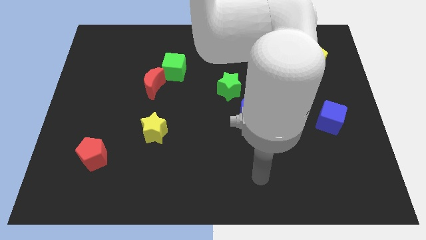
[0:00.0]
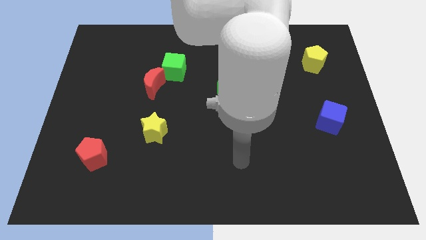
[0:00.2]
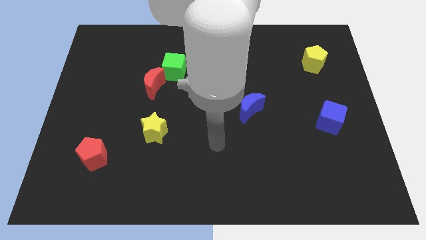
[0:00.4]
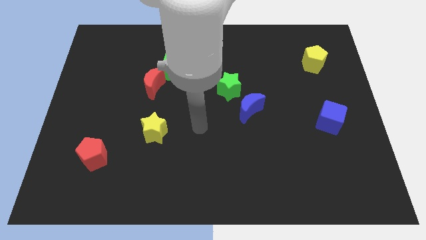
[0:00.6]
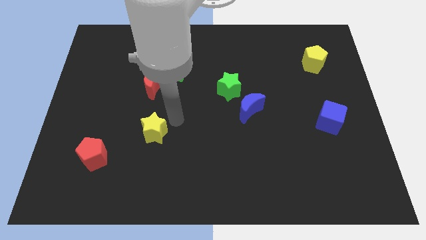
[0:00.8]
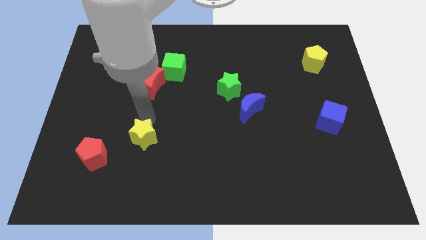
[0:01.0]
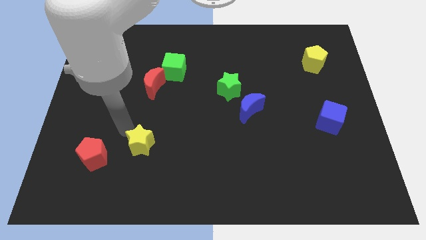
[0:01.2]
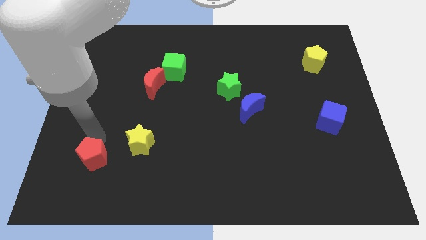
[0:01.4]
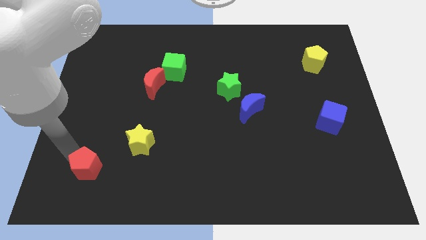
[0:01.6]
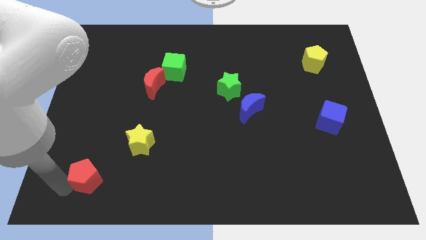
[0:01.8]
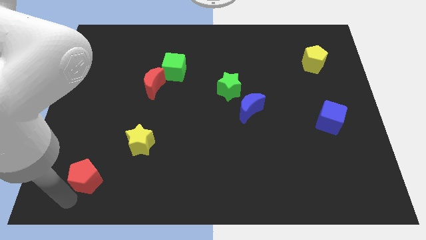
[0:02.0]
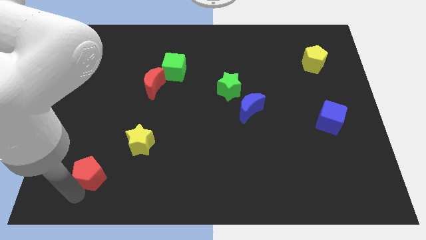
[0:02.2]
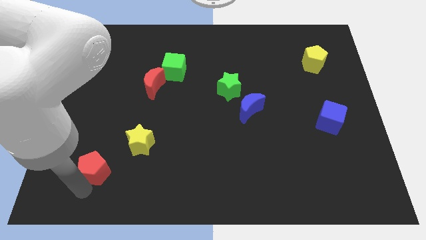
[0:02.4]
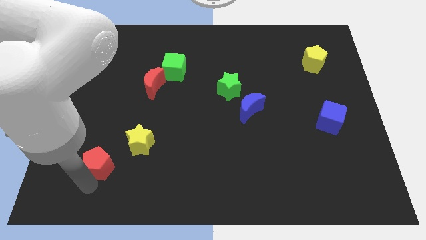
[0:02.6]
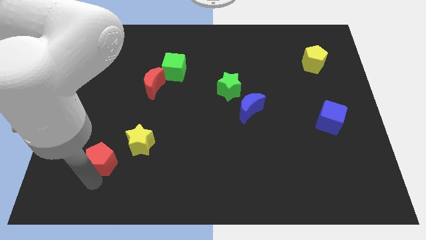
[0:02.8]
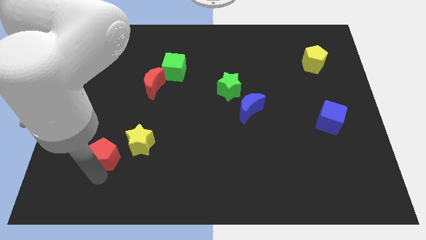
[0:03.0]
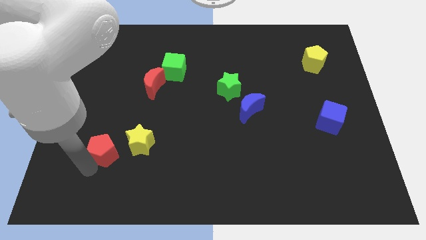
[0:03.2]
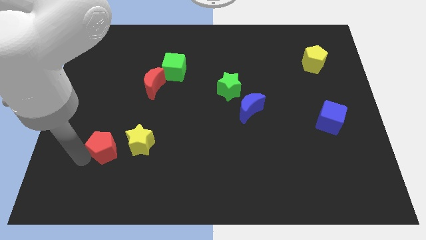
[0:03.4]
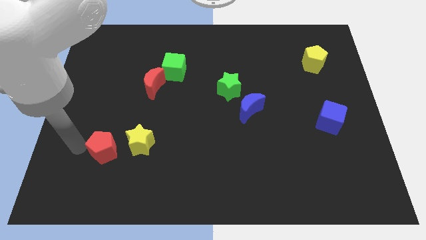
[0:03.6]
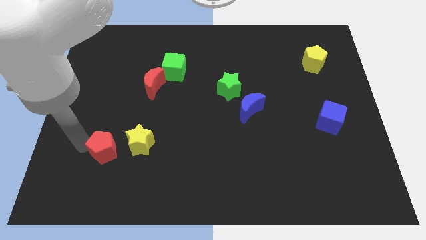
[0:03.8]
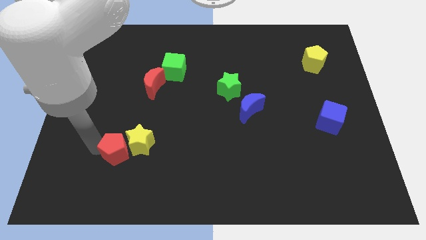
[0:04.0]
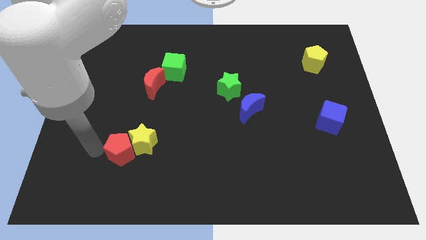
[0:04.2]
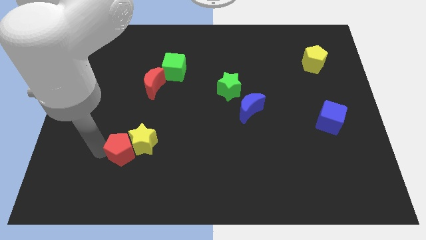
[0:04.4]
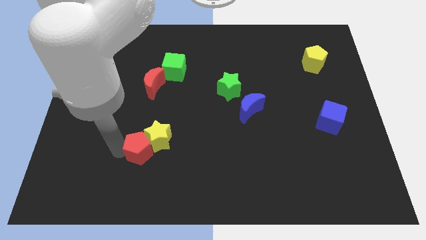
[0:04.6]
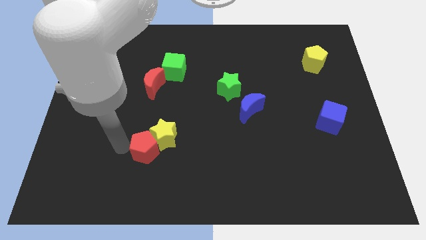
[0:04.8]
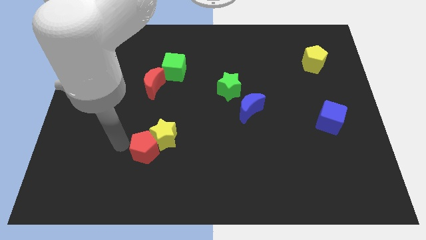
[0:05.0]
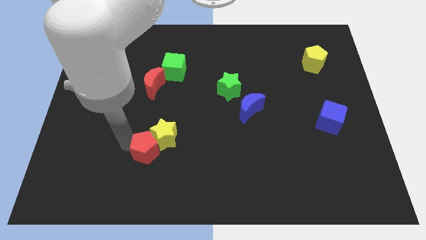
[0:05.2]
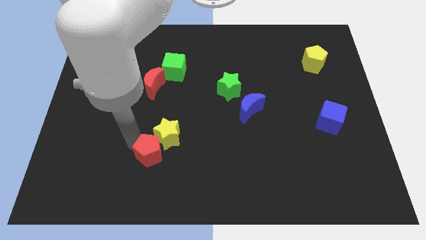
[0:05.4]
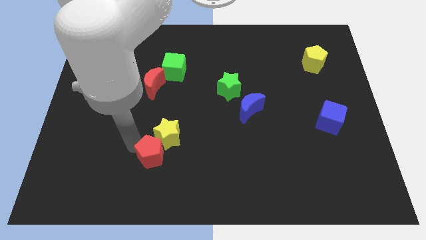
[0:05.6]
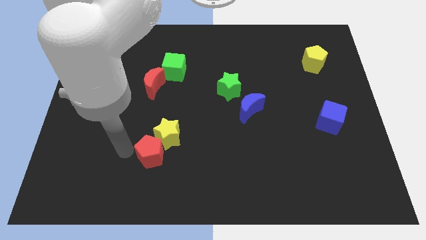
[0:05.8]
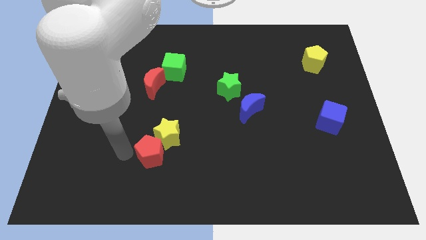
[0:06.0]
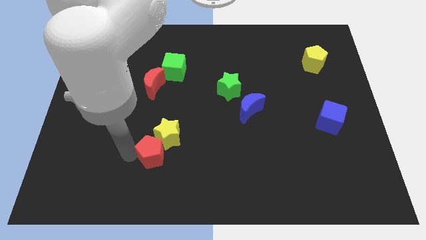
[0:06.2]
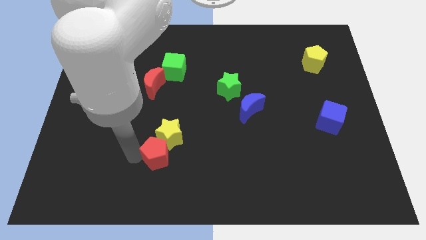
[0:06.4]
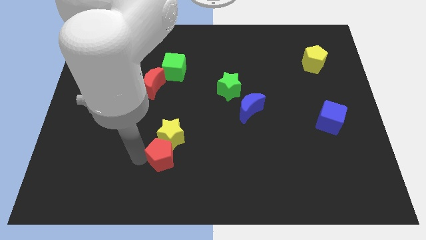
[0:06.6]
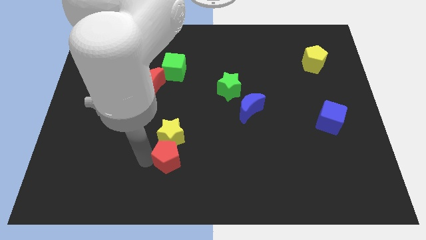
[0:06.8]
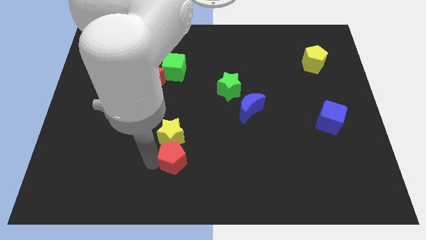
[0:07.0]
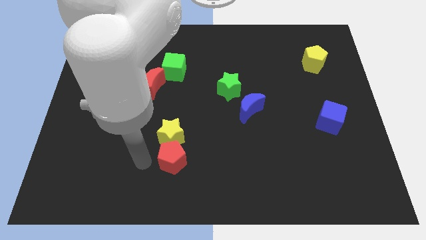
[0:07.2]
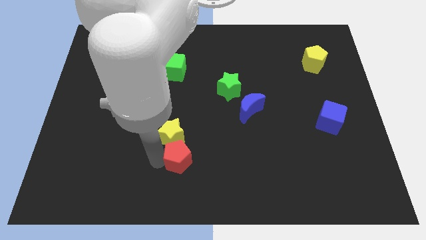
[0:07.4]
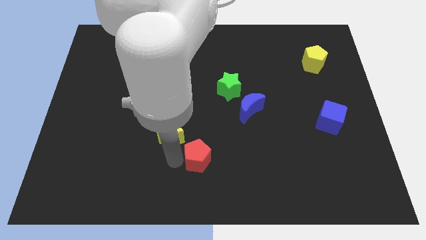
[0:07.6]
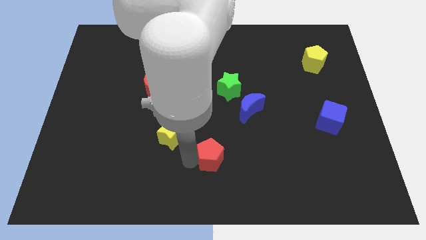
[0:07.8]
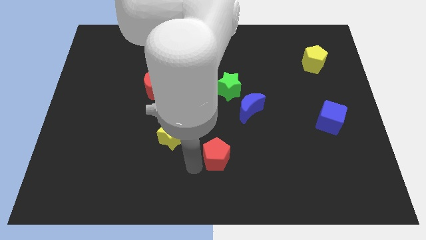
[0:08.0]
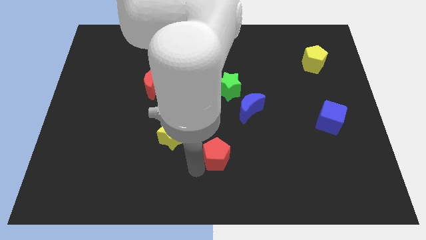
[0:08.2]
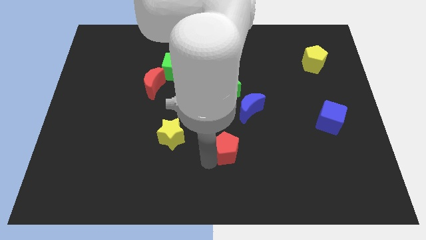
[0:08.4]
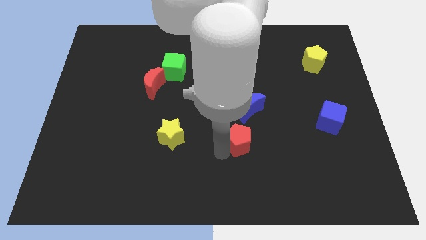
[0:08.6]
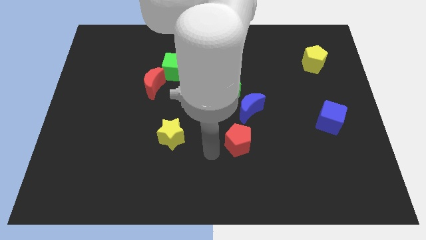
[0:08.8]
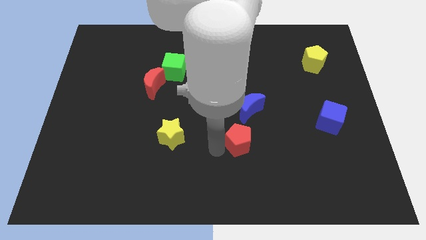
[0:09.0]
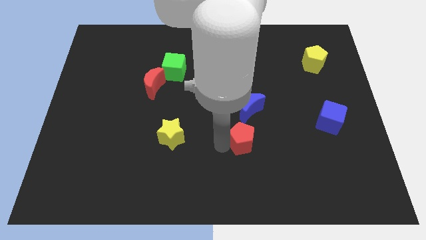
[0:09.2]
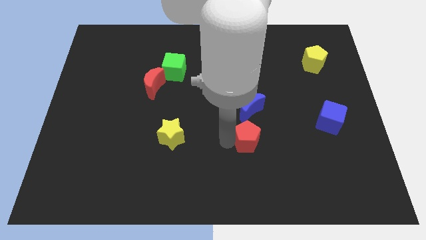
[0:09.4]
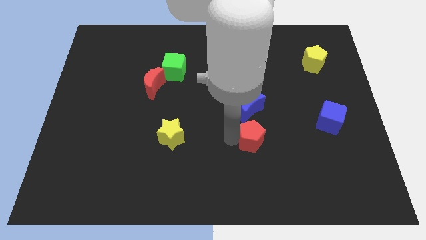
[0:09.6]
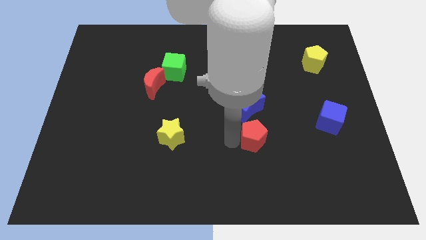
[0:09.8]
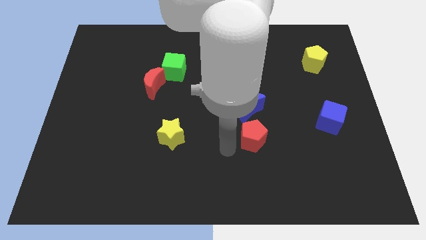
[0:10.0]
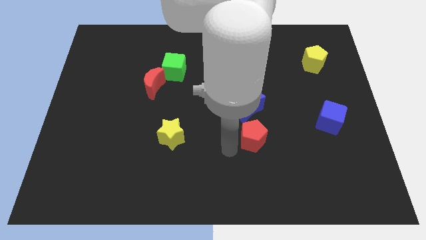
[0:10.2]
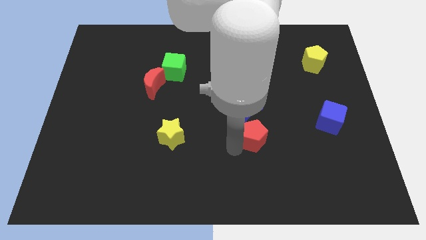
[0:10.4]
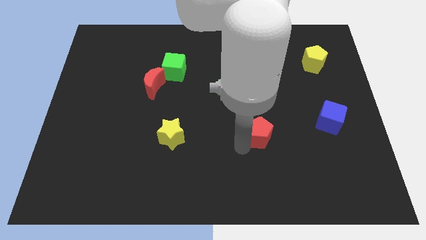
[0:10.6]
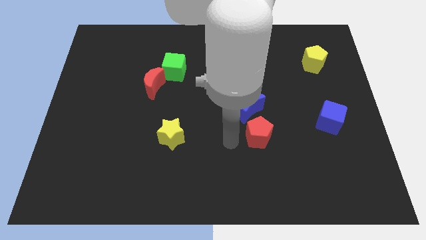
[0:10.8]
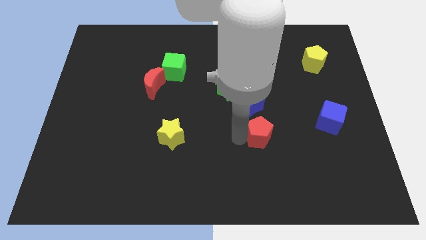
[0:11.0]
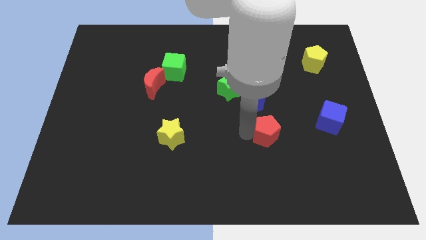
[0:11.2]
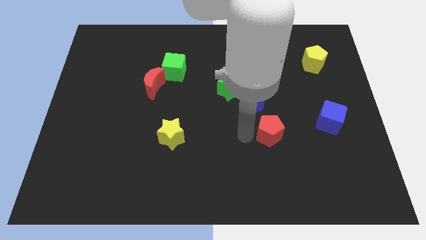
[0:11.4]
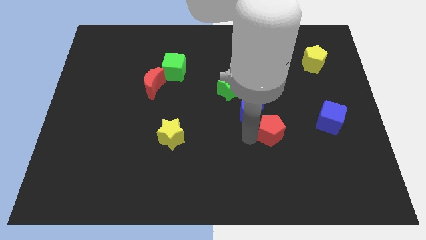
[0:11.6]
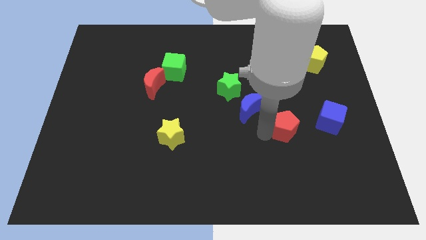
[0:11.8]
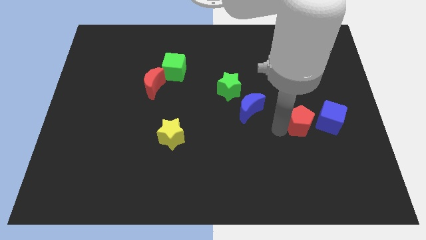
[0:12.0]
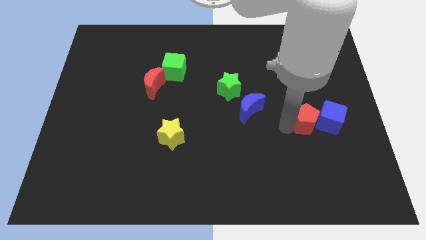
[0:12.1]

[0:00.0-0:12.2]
push the red pentagon close to the blue cube

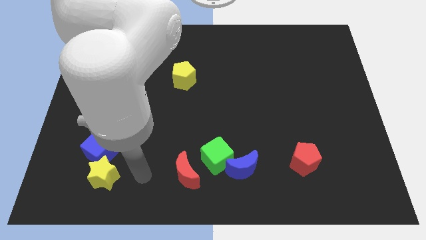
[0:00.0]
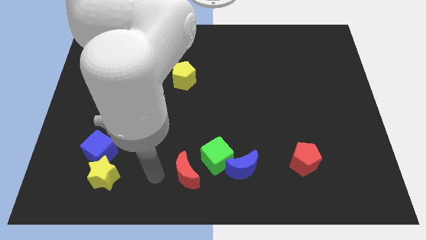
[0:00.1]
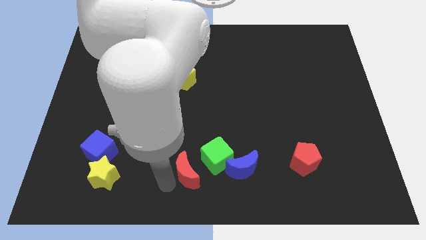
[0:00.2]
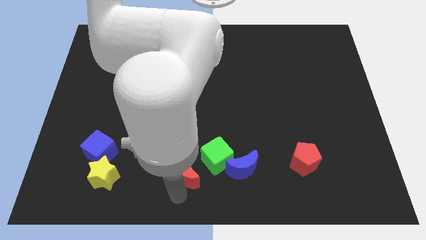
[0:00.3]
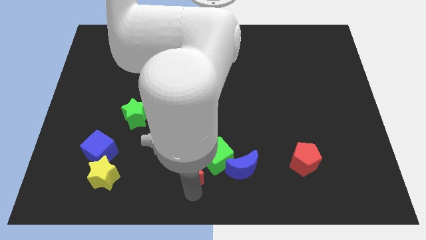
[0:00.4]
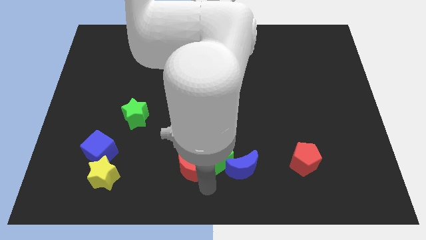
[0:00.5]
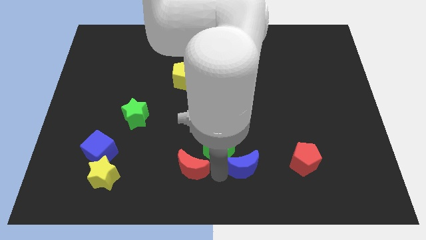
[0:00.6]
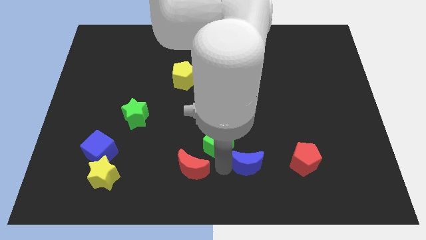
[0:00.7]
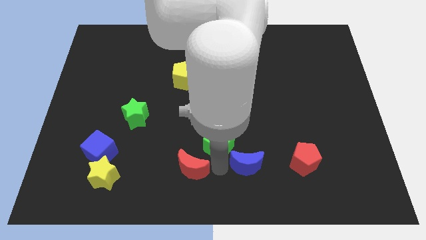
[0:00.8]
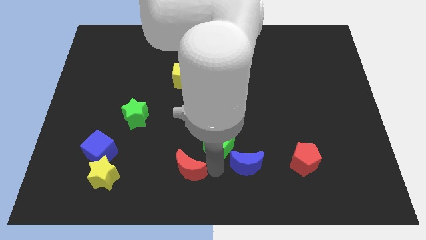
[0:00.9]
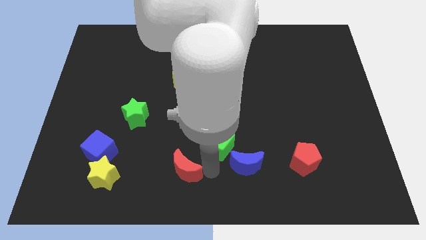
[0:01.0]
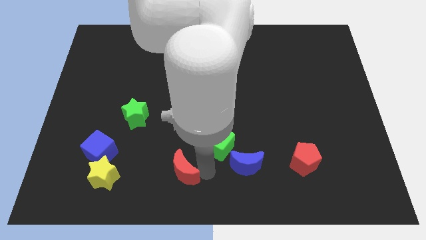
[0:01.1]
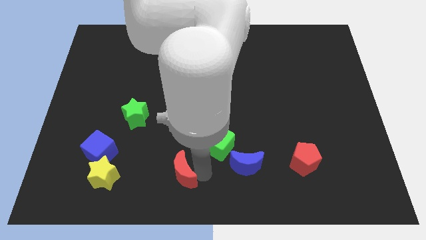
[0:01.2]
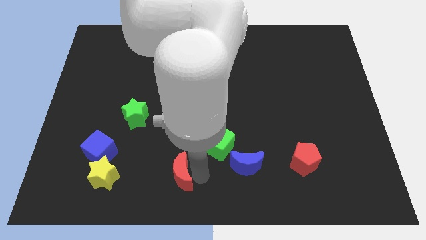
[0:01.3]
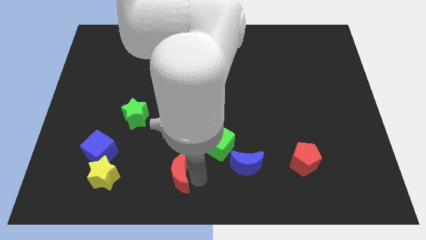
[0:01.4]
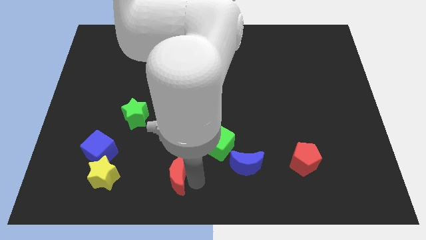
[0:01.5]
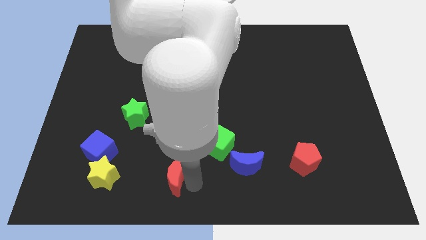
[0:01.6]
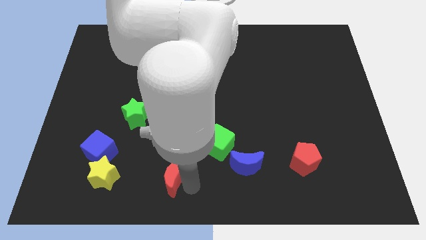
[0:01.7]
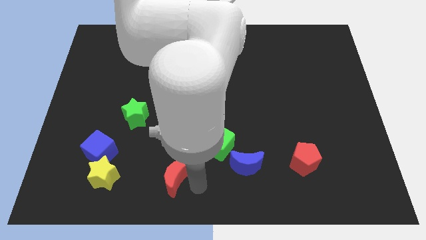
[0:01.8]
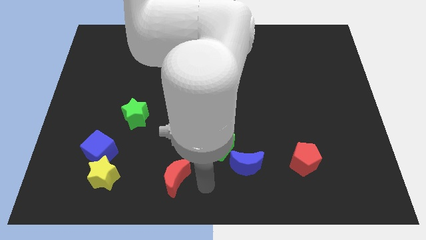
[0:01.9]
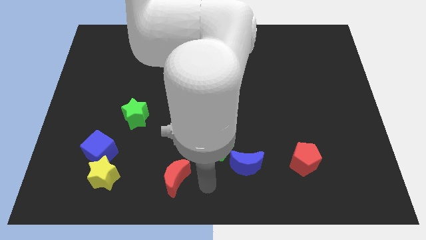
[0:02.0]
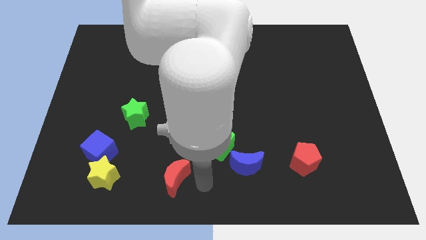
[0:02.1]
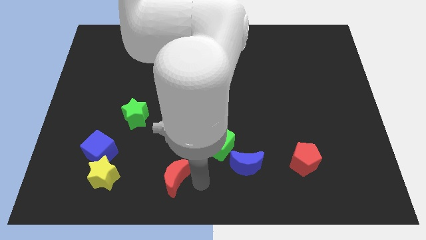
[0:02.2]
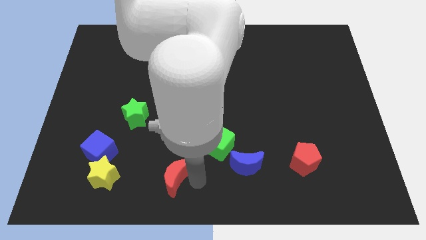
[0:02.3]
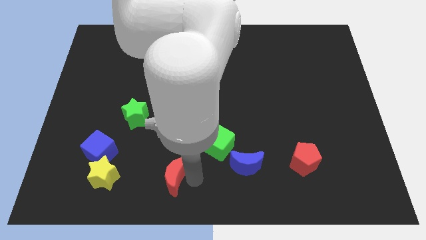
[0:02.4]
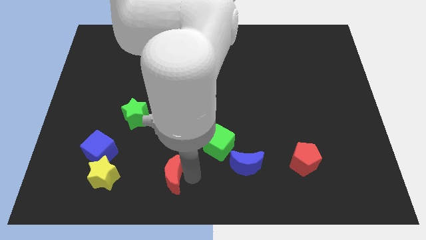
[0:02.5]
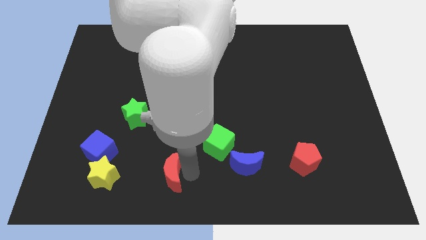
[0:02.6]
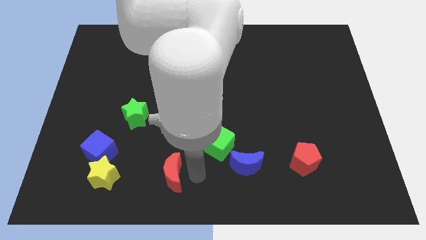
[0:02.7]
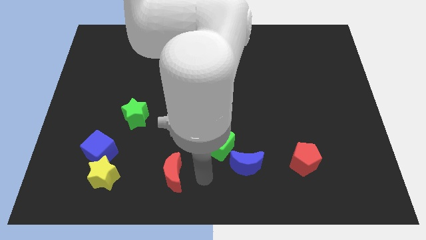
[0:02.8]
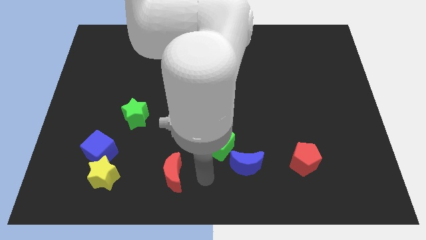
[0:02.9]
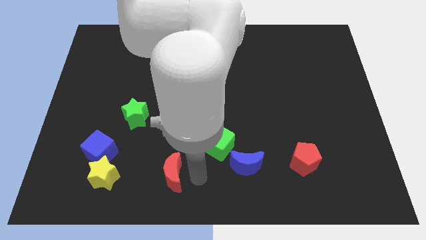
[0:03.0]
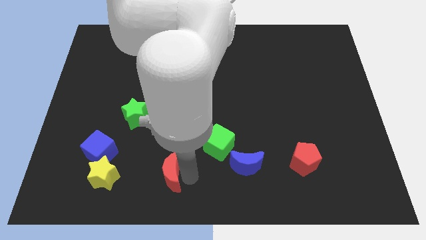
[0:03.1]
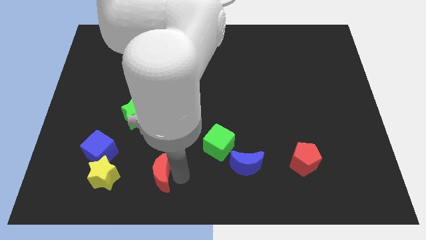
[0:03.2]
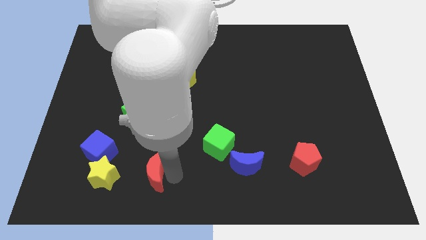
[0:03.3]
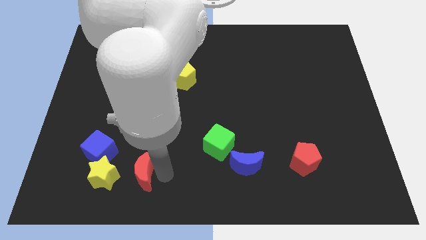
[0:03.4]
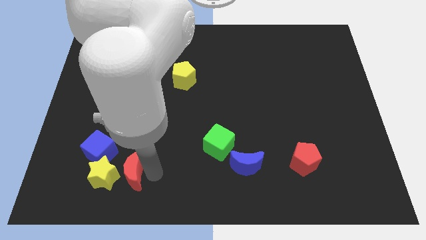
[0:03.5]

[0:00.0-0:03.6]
push the red moon to the yellow star
